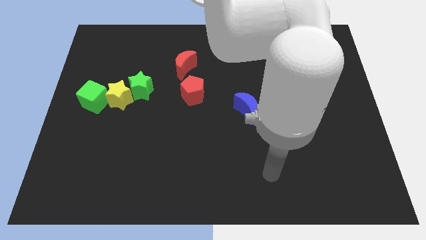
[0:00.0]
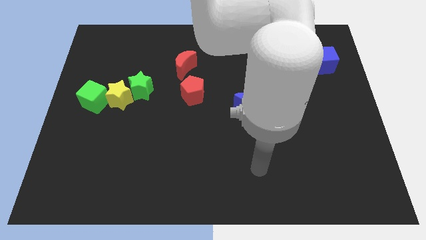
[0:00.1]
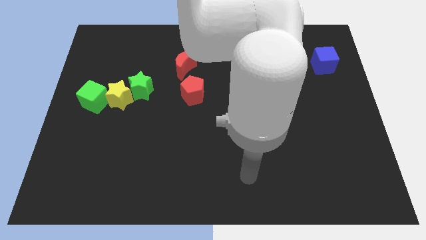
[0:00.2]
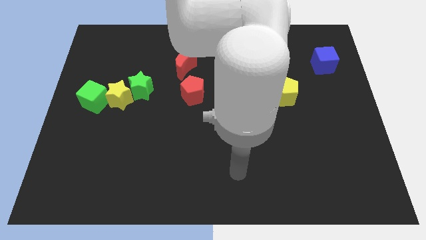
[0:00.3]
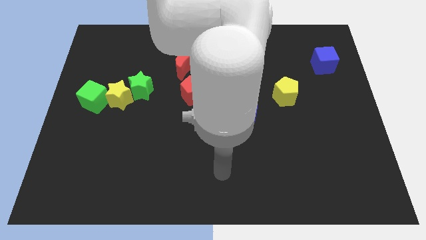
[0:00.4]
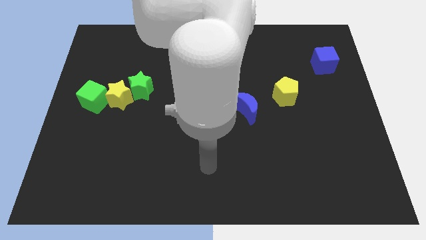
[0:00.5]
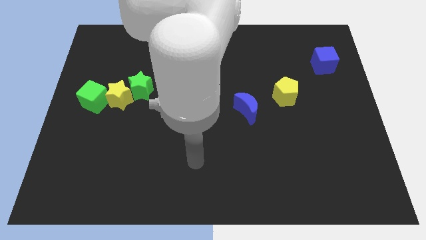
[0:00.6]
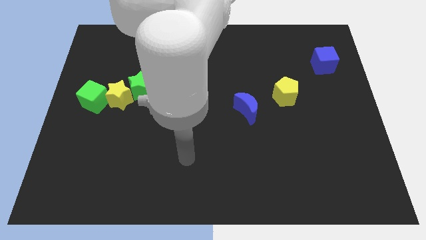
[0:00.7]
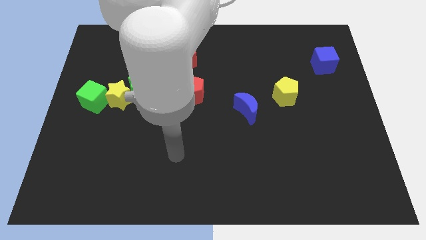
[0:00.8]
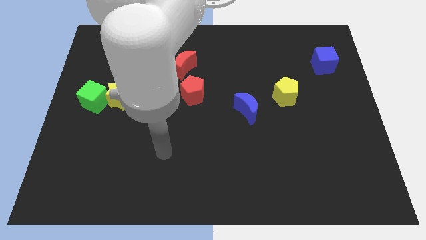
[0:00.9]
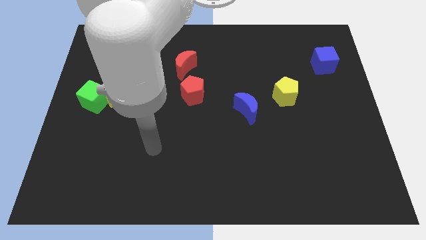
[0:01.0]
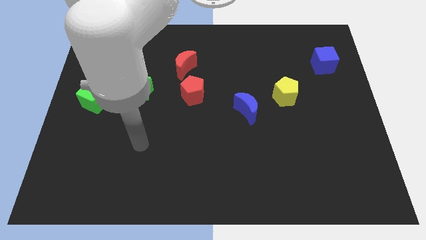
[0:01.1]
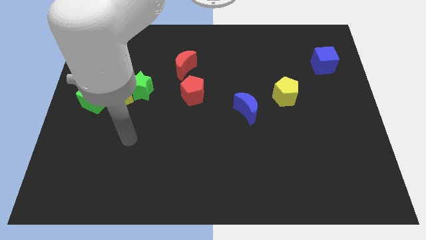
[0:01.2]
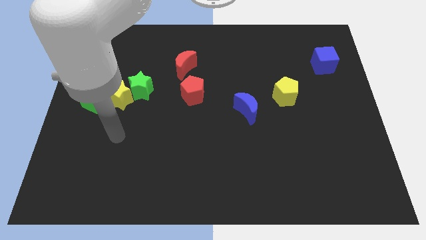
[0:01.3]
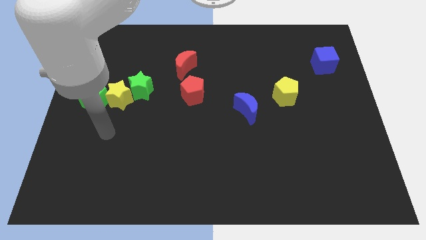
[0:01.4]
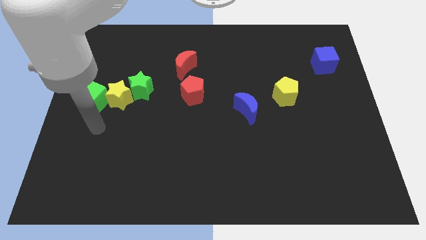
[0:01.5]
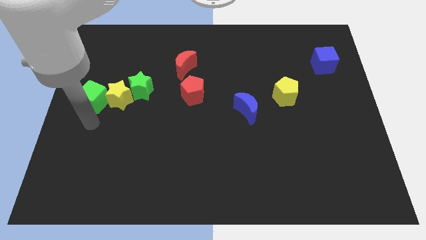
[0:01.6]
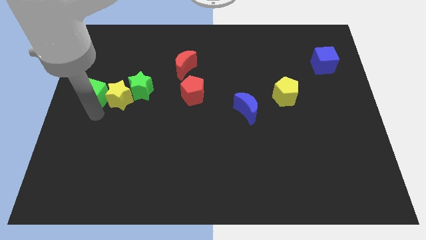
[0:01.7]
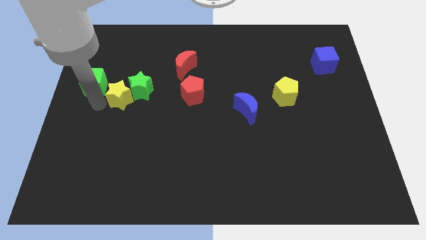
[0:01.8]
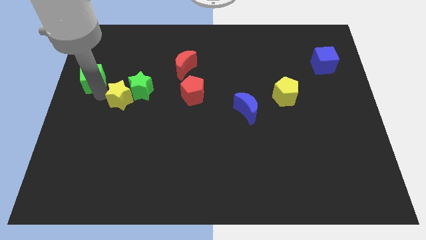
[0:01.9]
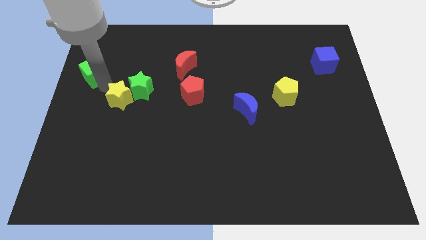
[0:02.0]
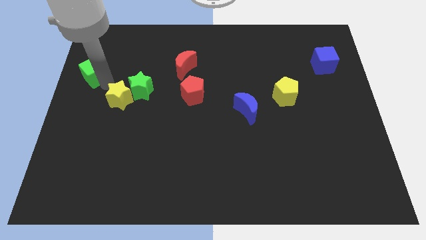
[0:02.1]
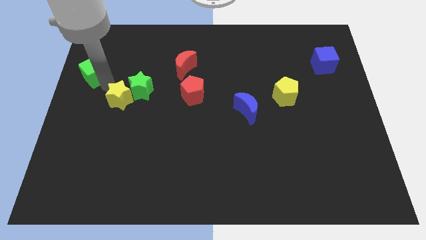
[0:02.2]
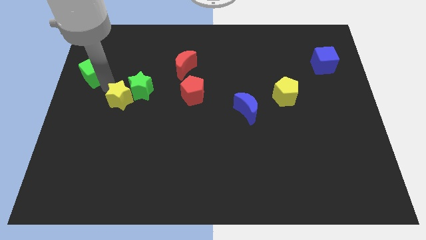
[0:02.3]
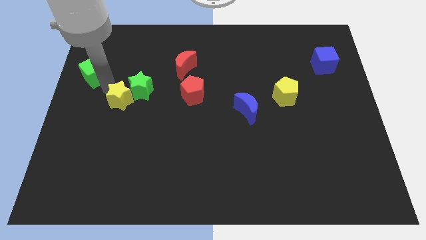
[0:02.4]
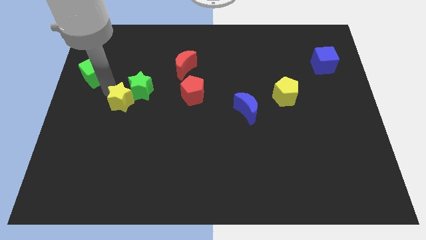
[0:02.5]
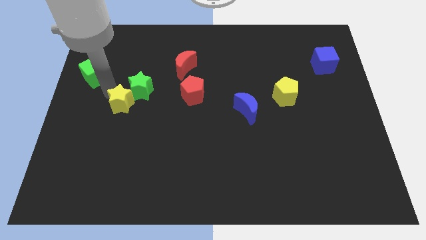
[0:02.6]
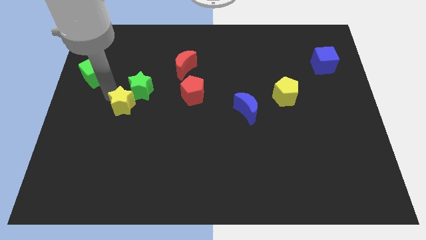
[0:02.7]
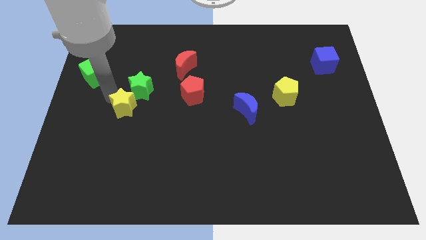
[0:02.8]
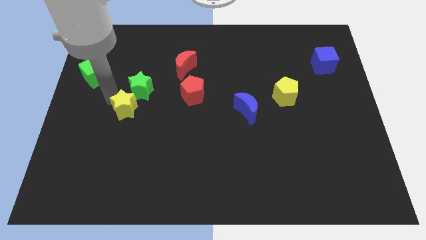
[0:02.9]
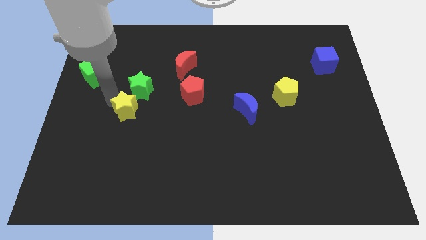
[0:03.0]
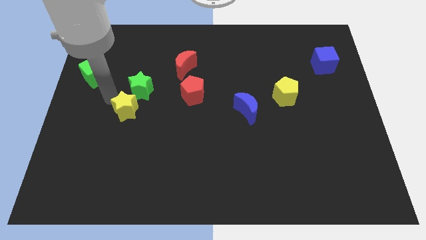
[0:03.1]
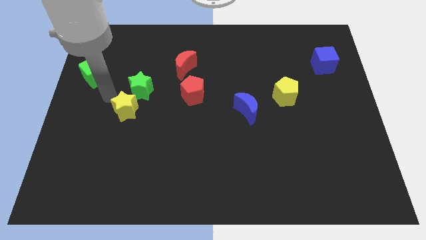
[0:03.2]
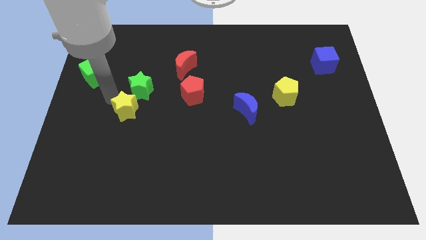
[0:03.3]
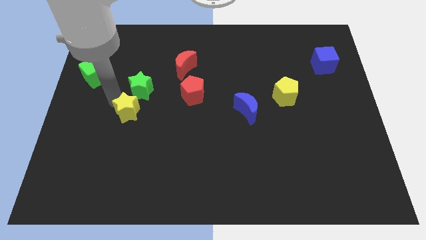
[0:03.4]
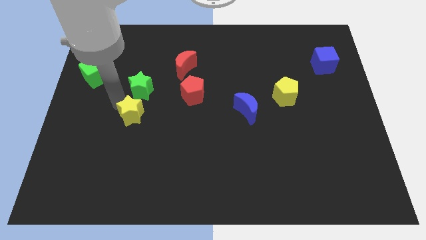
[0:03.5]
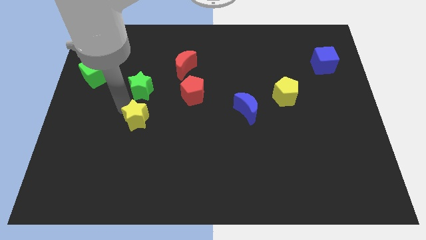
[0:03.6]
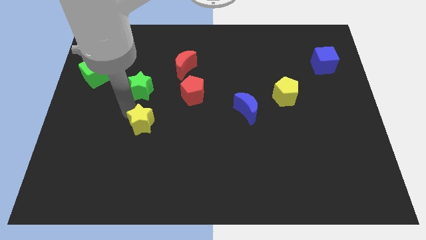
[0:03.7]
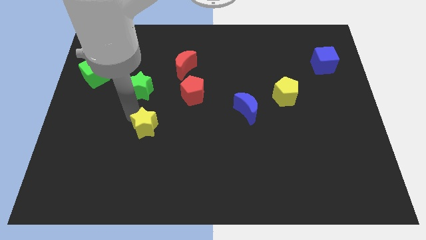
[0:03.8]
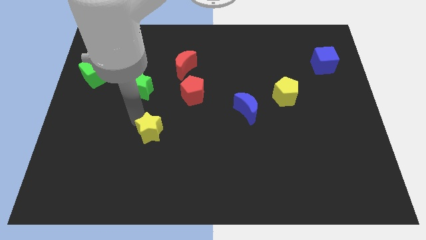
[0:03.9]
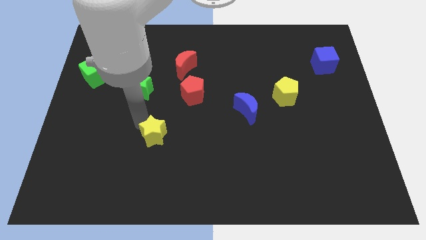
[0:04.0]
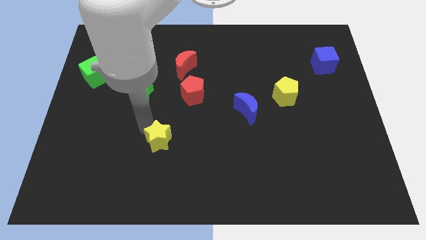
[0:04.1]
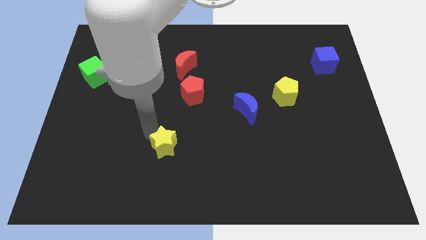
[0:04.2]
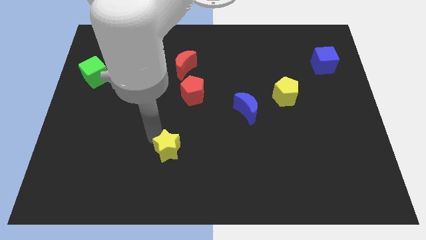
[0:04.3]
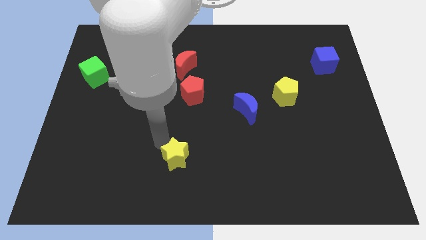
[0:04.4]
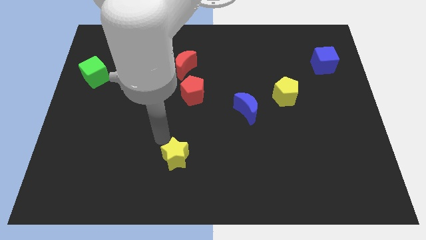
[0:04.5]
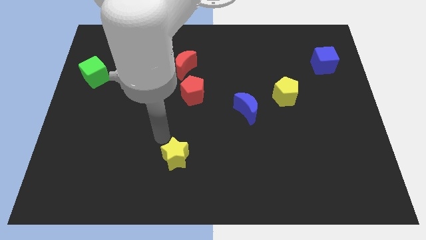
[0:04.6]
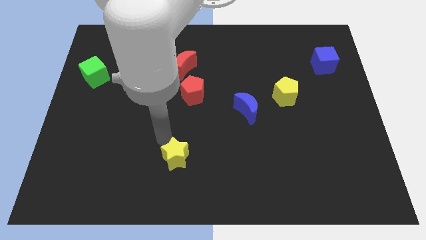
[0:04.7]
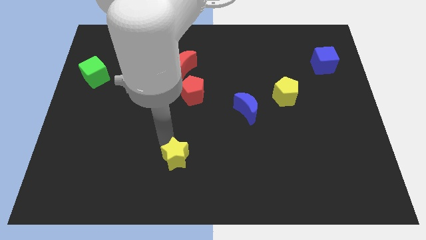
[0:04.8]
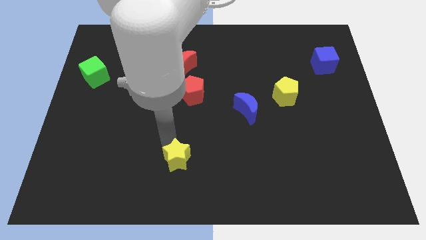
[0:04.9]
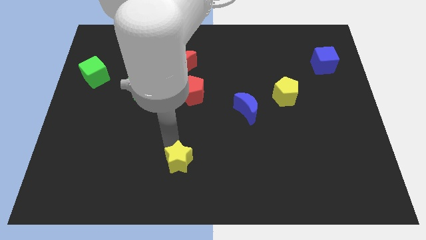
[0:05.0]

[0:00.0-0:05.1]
move the yellow star to the bottom side

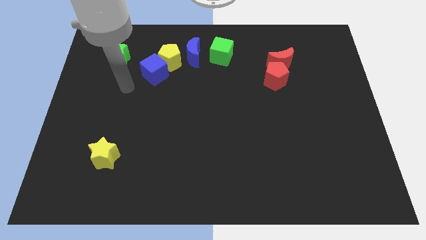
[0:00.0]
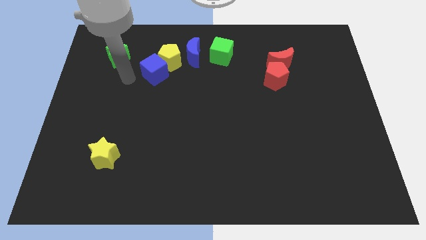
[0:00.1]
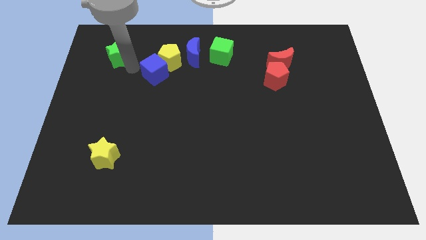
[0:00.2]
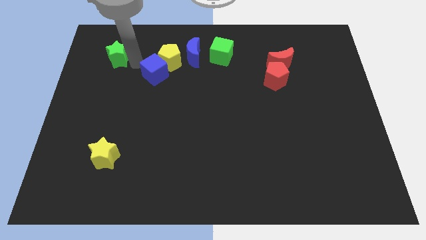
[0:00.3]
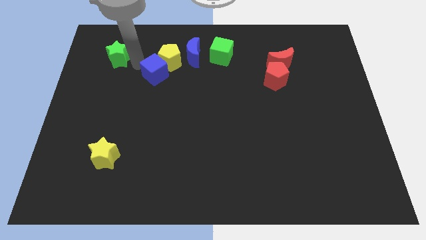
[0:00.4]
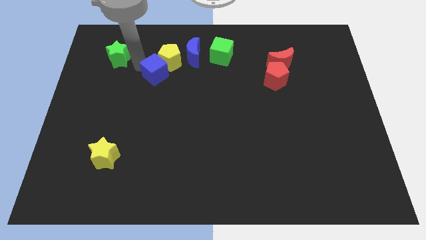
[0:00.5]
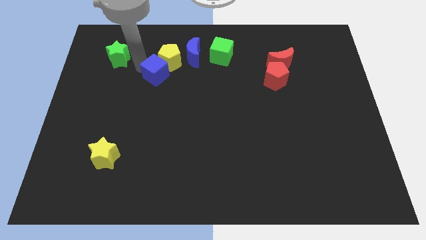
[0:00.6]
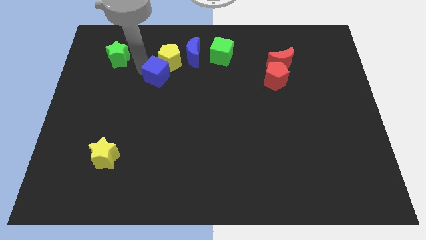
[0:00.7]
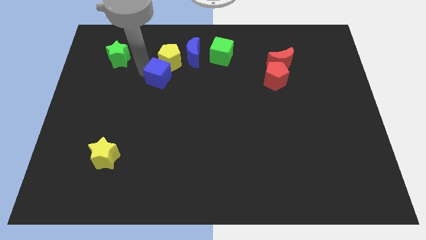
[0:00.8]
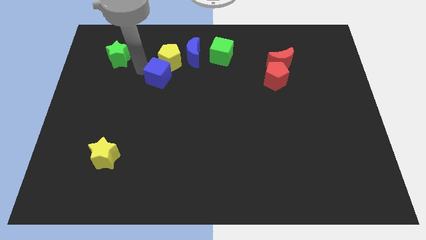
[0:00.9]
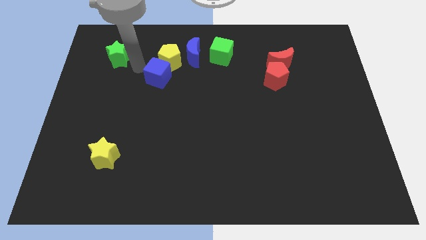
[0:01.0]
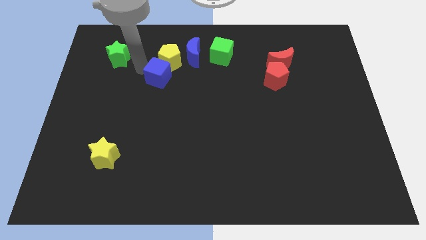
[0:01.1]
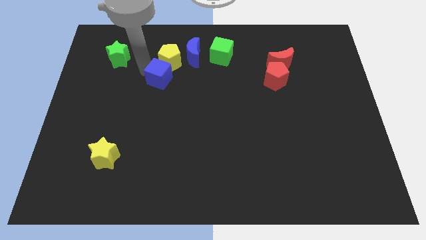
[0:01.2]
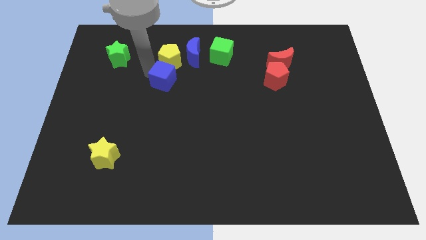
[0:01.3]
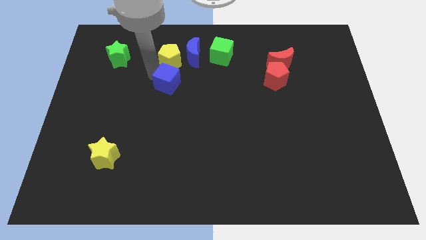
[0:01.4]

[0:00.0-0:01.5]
move the blue cube to the center
